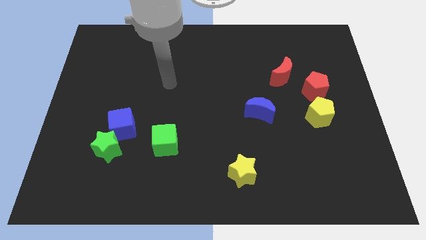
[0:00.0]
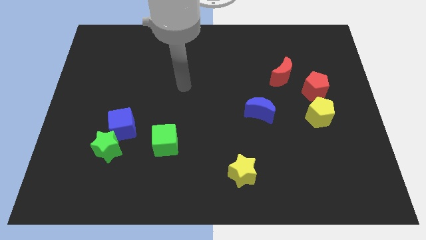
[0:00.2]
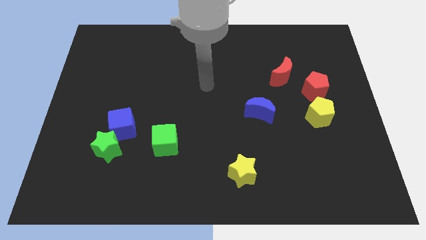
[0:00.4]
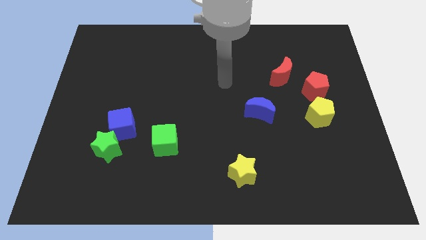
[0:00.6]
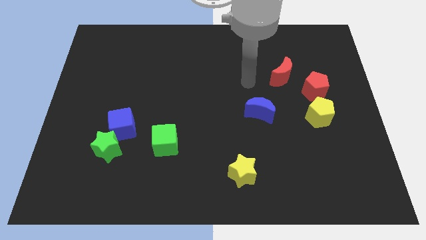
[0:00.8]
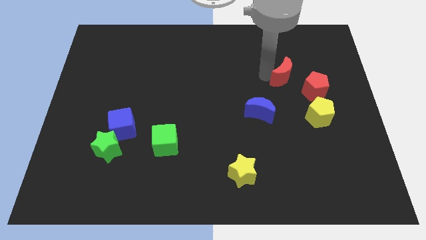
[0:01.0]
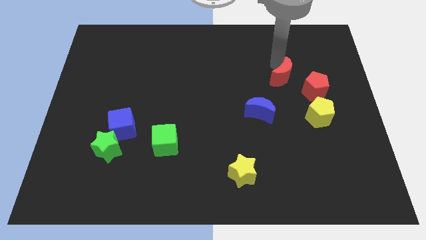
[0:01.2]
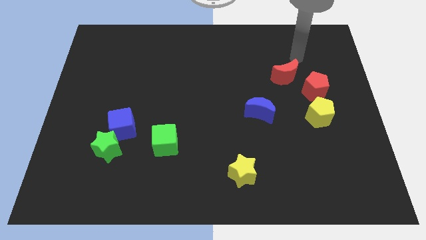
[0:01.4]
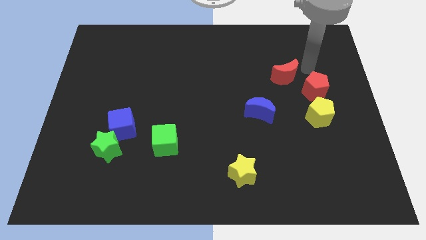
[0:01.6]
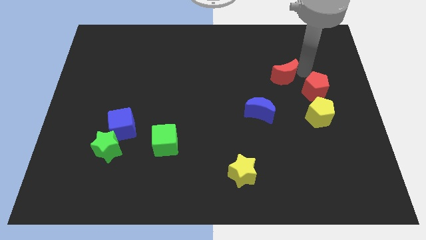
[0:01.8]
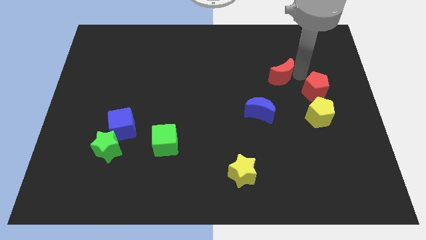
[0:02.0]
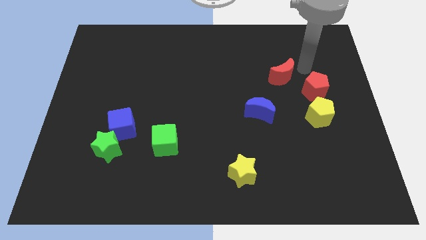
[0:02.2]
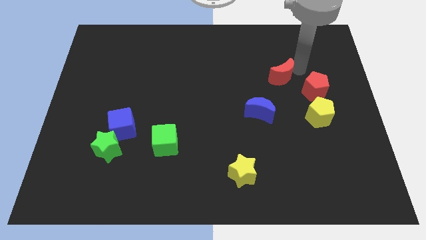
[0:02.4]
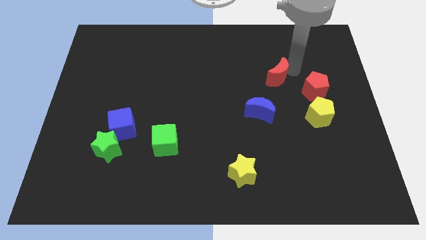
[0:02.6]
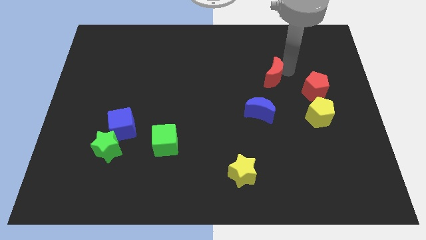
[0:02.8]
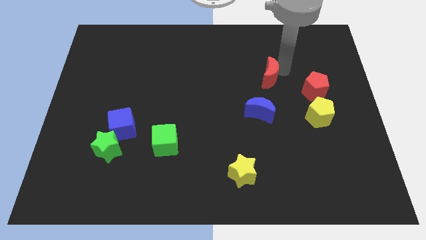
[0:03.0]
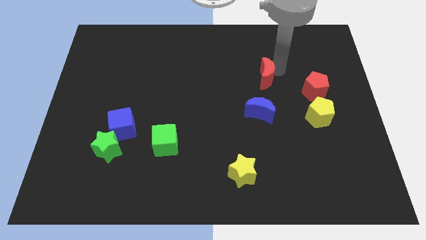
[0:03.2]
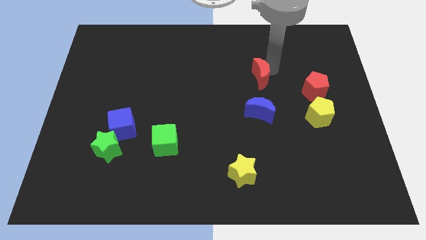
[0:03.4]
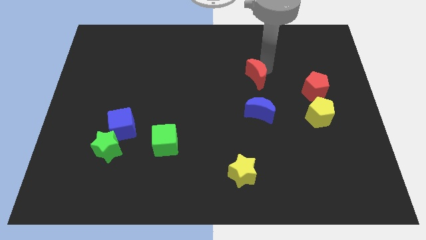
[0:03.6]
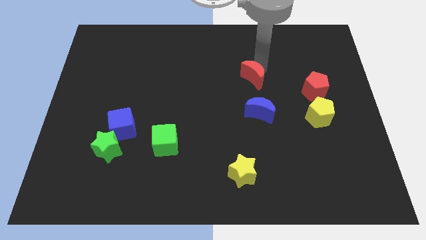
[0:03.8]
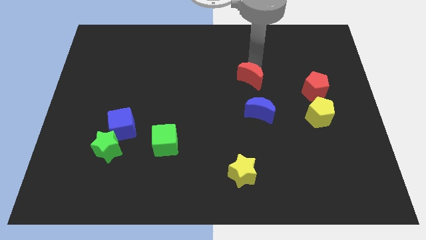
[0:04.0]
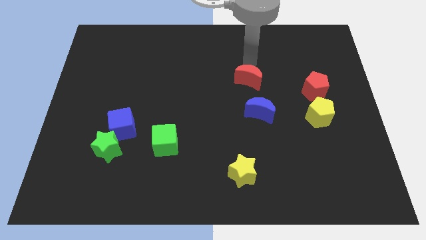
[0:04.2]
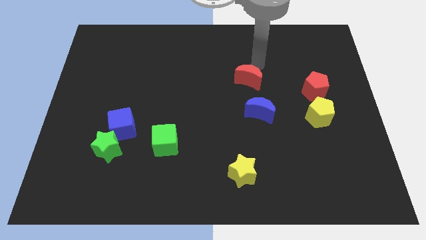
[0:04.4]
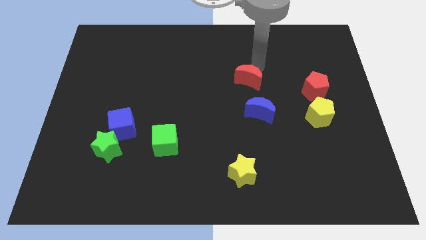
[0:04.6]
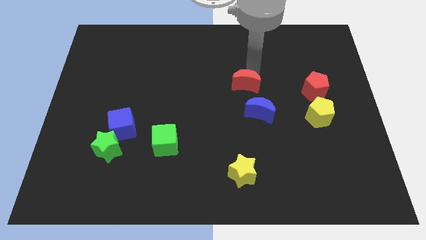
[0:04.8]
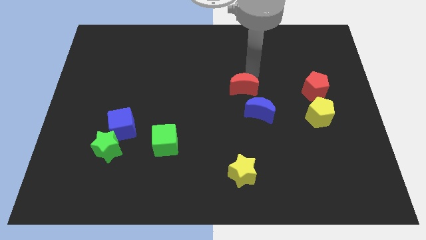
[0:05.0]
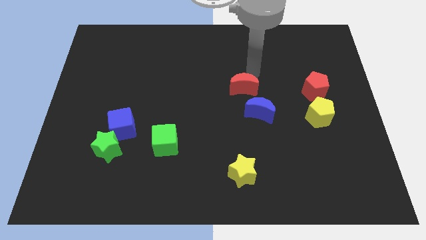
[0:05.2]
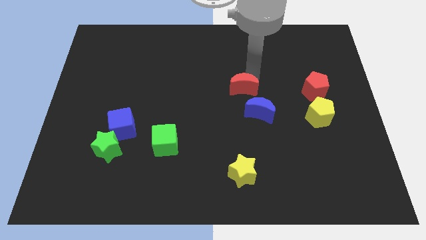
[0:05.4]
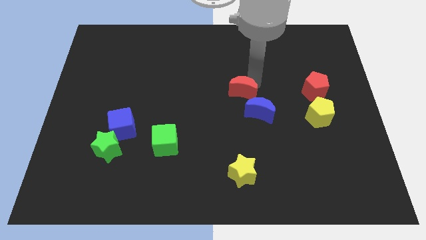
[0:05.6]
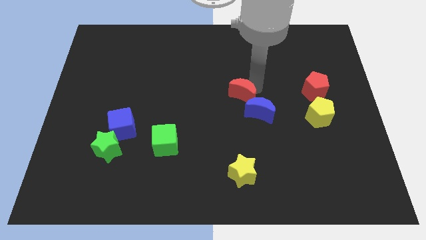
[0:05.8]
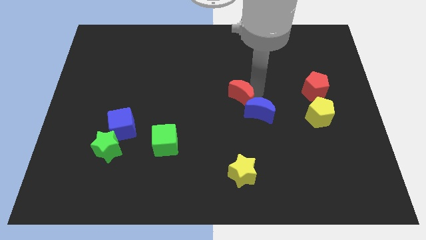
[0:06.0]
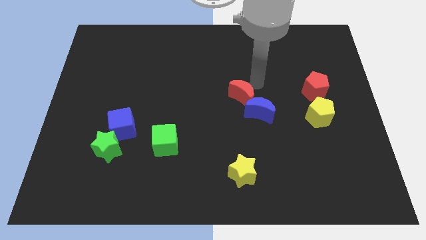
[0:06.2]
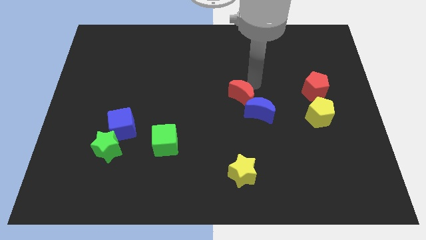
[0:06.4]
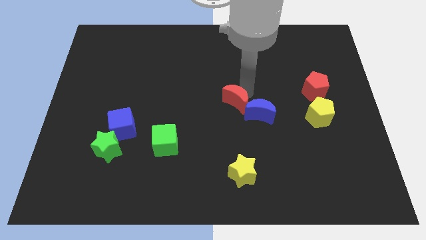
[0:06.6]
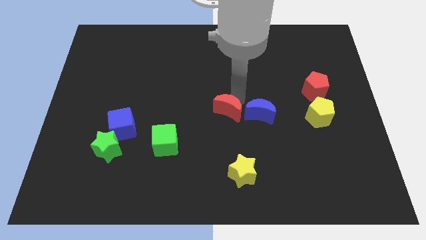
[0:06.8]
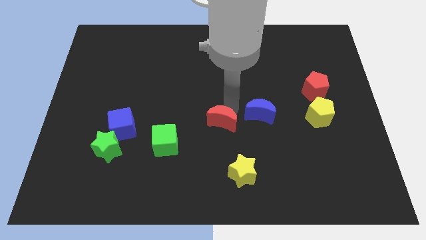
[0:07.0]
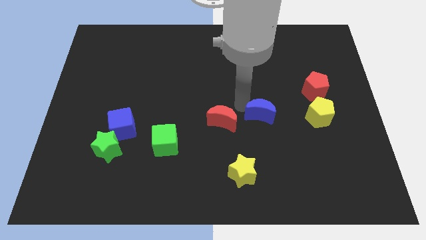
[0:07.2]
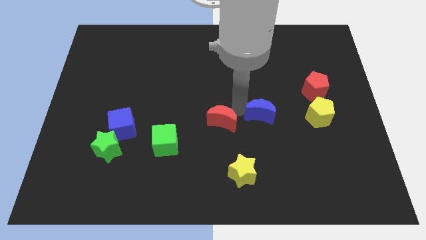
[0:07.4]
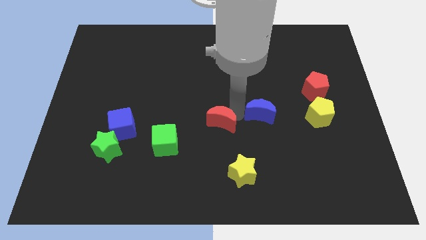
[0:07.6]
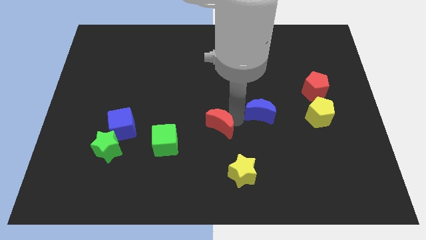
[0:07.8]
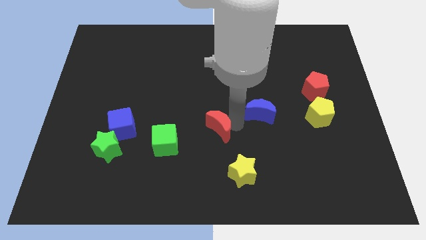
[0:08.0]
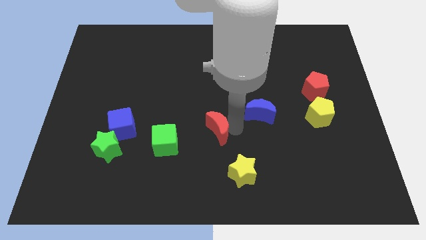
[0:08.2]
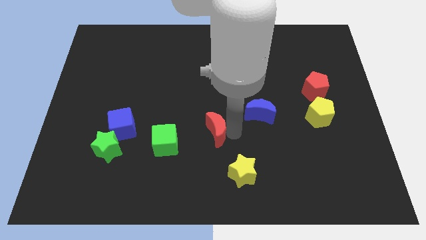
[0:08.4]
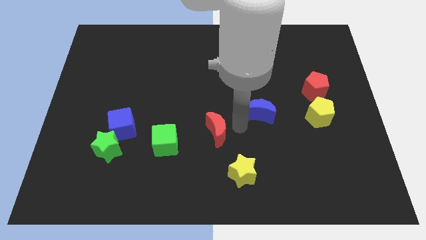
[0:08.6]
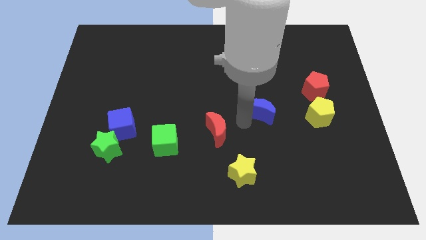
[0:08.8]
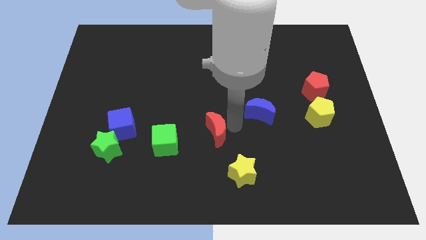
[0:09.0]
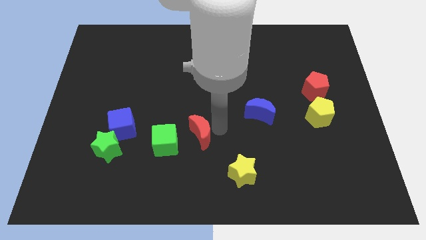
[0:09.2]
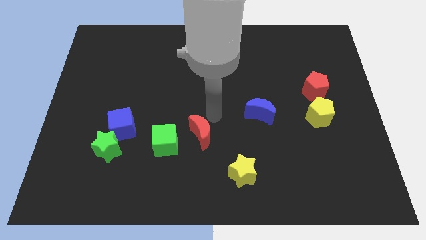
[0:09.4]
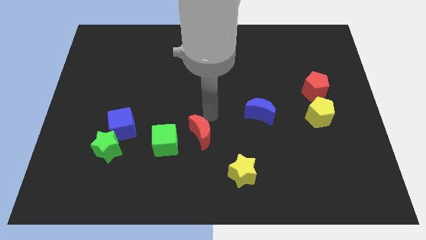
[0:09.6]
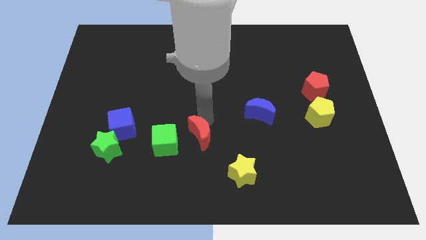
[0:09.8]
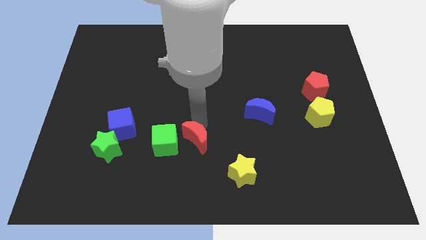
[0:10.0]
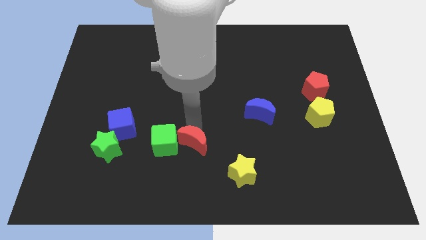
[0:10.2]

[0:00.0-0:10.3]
put the red moon diagonally down and to the right of the green cube

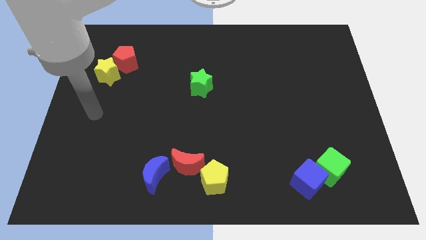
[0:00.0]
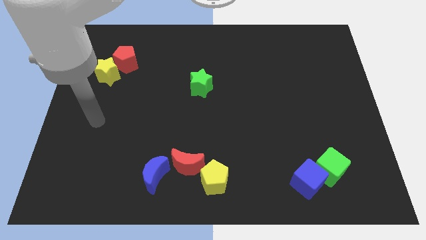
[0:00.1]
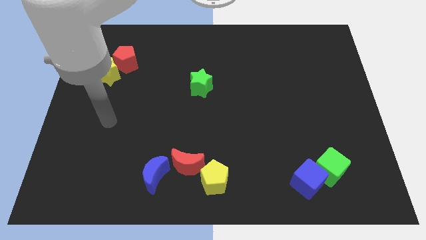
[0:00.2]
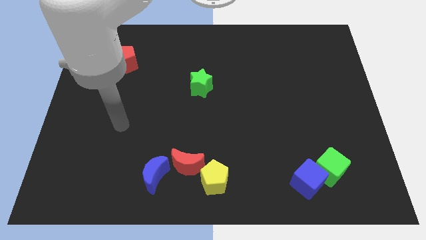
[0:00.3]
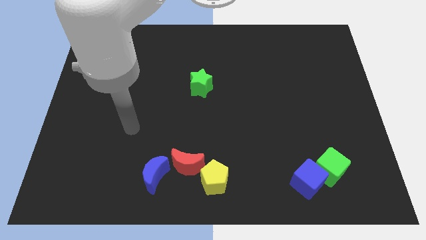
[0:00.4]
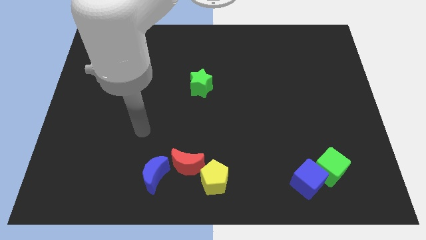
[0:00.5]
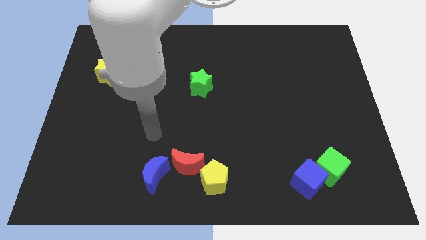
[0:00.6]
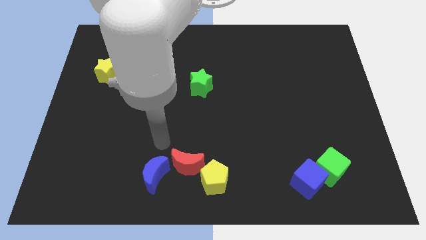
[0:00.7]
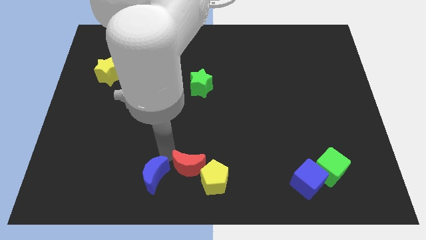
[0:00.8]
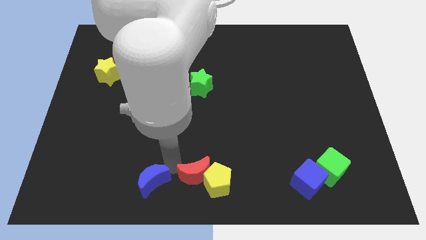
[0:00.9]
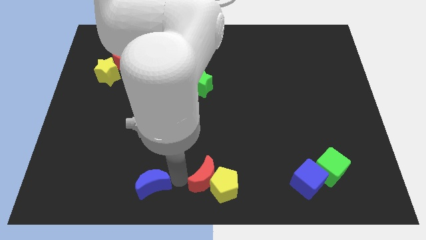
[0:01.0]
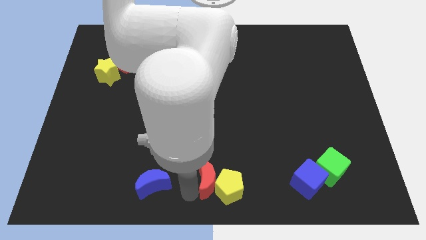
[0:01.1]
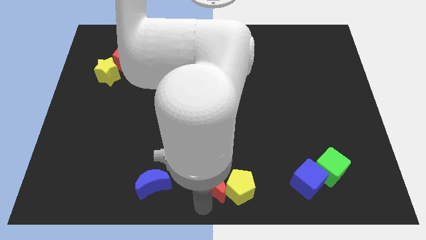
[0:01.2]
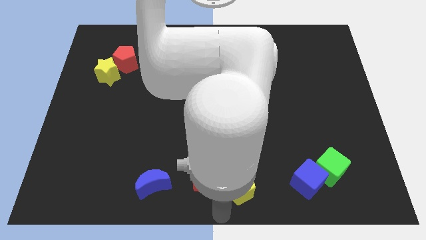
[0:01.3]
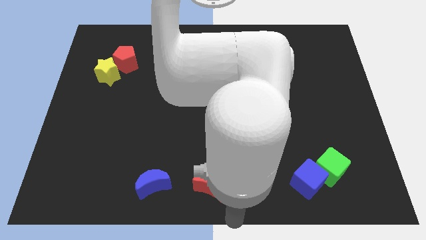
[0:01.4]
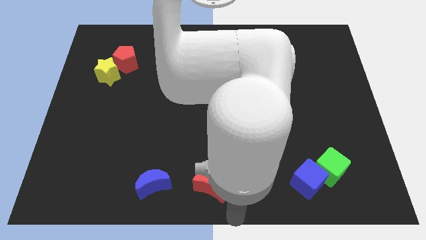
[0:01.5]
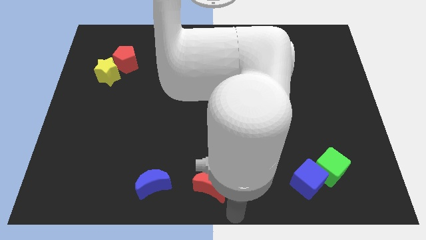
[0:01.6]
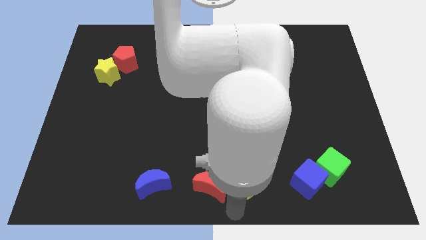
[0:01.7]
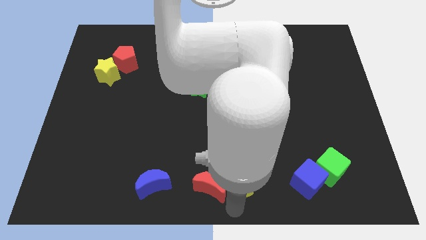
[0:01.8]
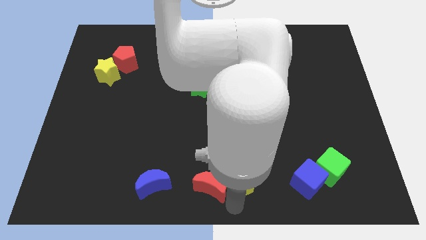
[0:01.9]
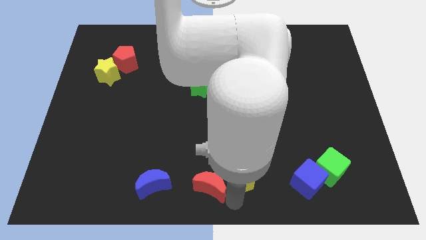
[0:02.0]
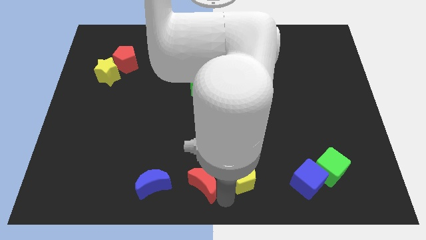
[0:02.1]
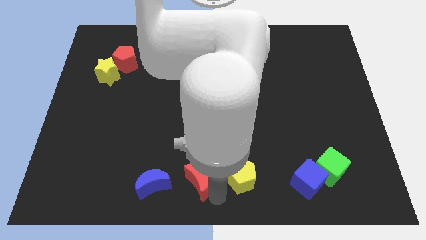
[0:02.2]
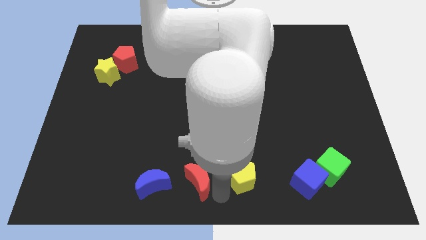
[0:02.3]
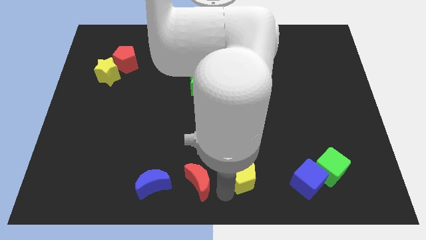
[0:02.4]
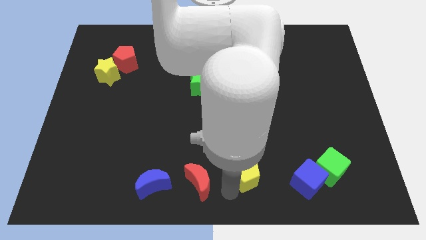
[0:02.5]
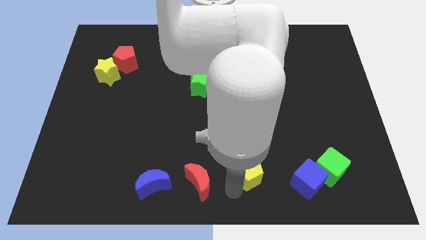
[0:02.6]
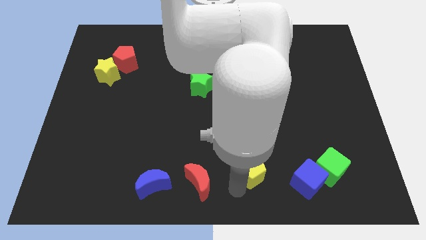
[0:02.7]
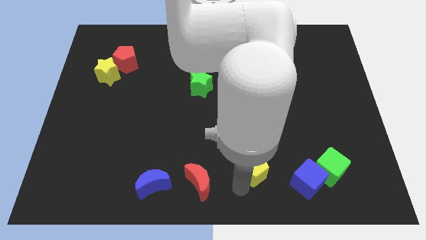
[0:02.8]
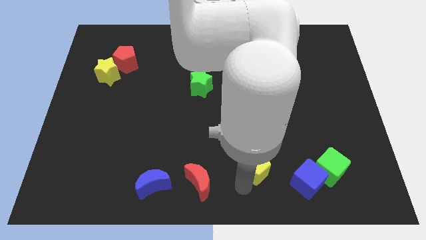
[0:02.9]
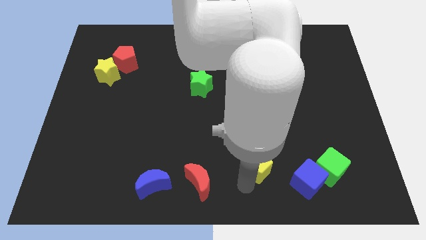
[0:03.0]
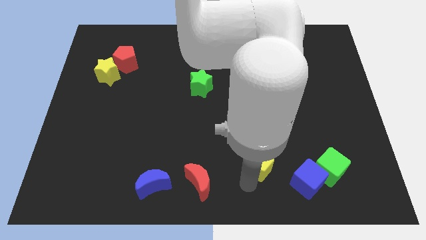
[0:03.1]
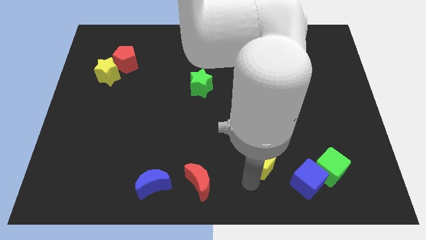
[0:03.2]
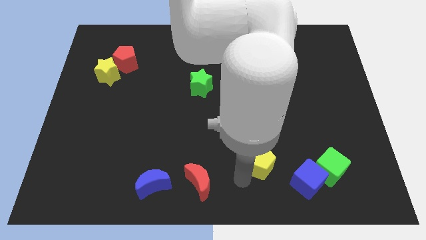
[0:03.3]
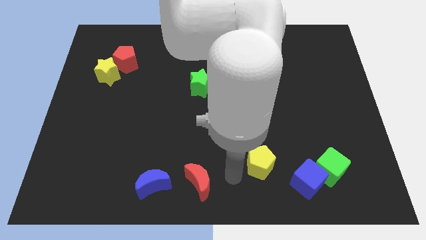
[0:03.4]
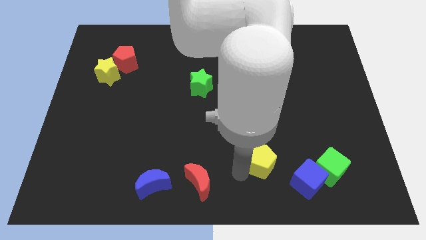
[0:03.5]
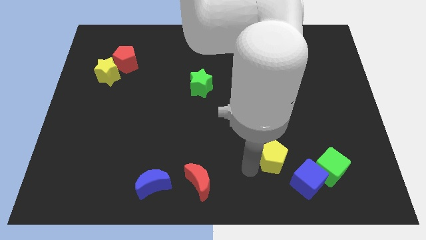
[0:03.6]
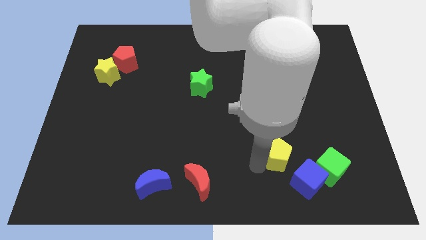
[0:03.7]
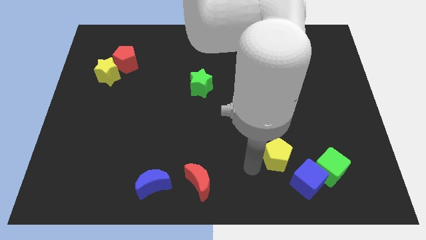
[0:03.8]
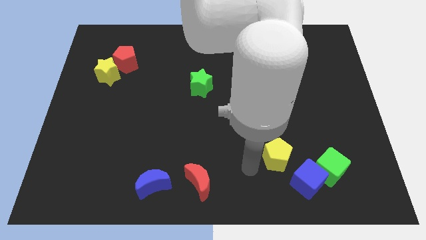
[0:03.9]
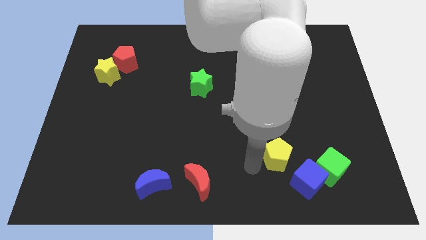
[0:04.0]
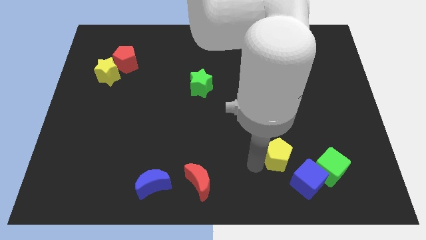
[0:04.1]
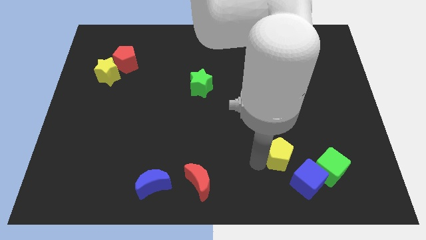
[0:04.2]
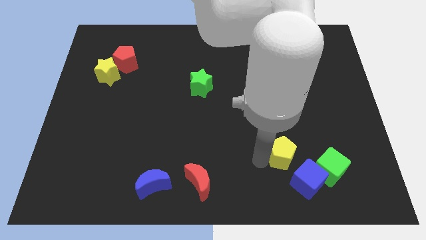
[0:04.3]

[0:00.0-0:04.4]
slide the yellow pentagon to the top left of the green cube
